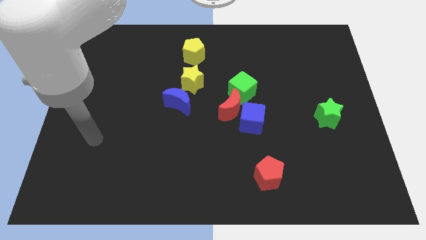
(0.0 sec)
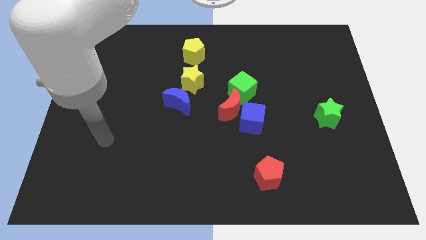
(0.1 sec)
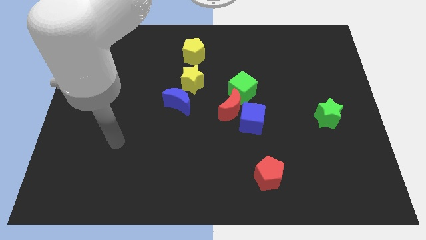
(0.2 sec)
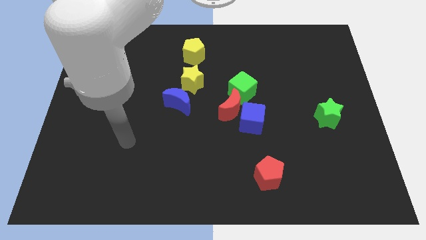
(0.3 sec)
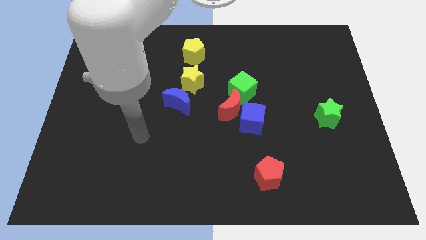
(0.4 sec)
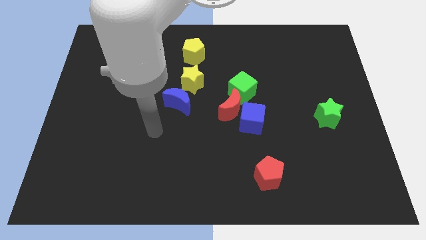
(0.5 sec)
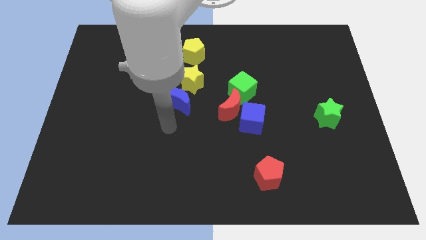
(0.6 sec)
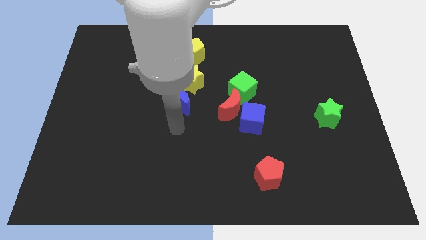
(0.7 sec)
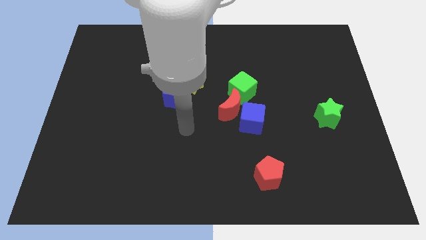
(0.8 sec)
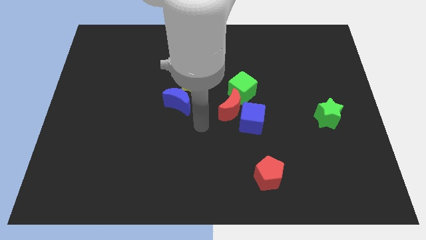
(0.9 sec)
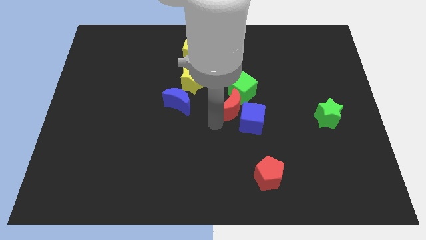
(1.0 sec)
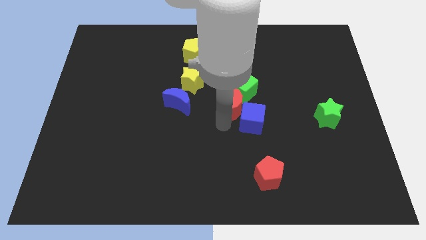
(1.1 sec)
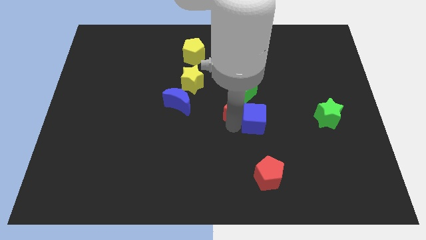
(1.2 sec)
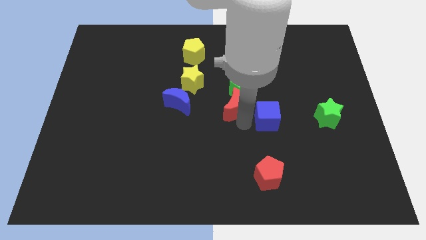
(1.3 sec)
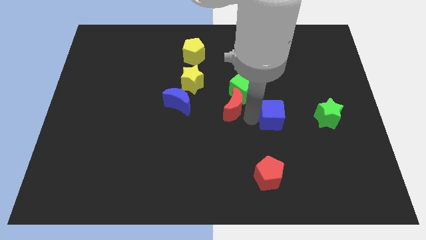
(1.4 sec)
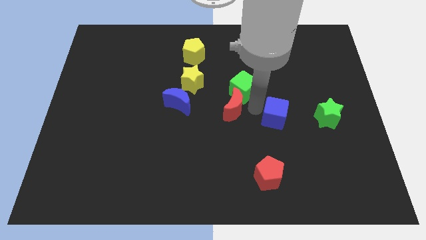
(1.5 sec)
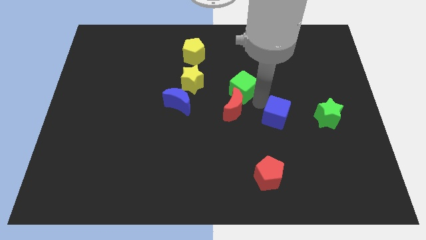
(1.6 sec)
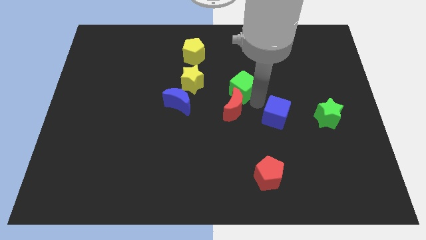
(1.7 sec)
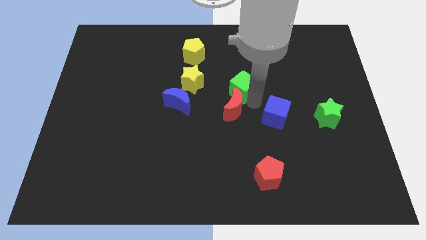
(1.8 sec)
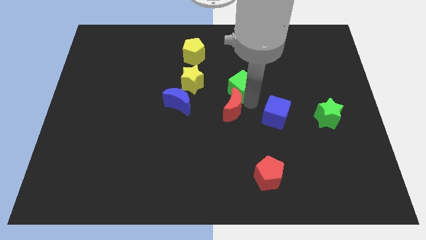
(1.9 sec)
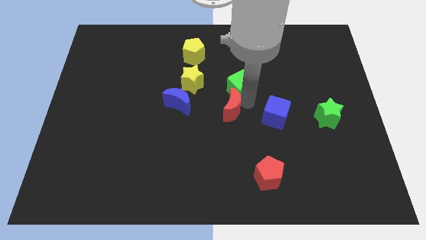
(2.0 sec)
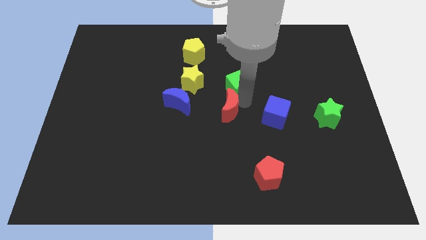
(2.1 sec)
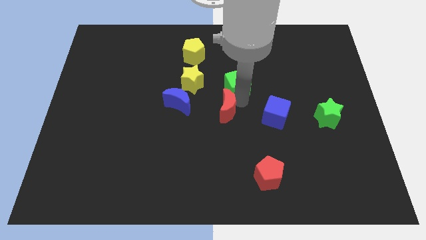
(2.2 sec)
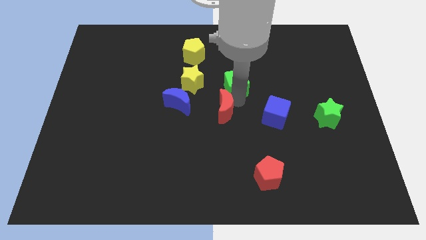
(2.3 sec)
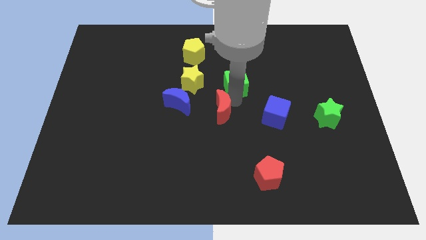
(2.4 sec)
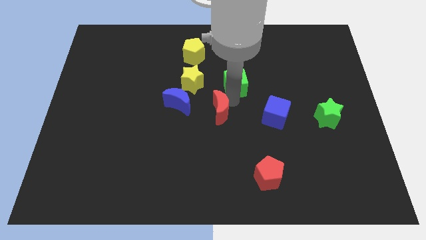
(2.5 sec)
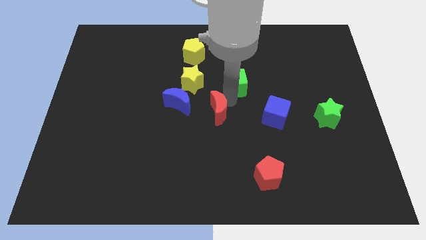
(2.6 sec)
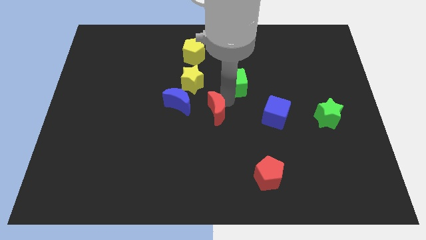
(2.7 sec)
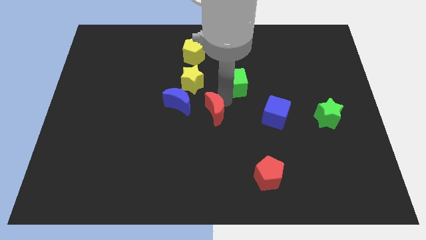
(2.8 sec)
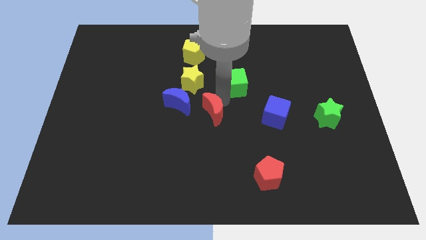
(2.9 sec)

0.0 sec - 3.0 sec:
move the red moon away from the blue cube and green cube

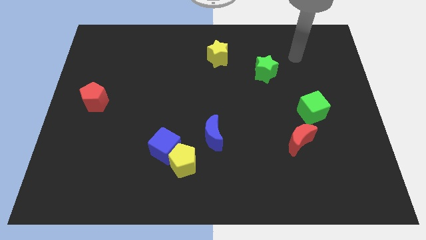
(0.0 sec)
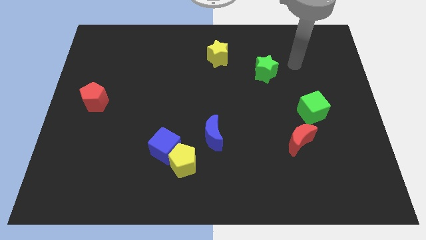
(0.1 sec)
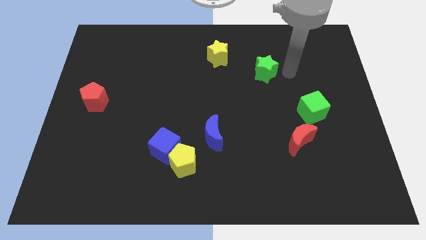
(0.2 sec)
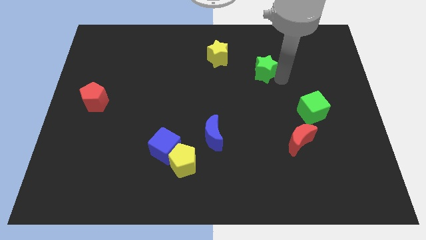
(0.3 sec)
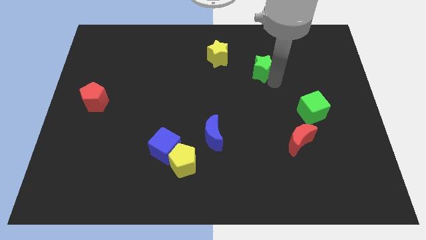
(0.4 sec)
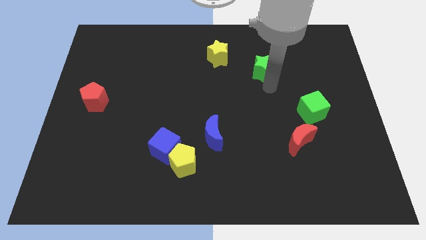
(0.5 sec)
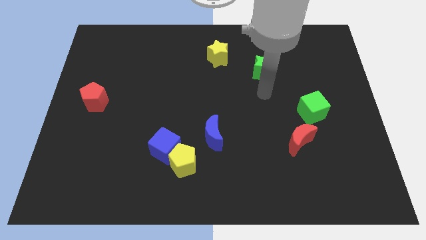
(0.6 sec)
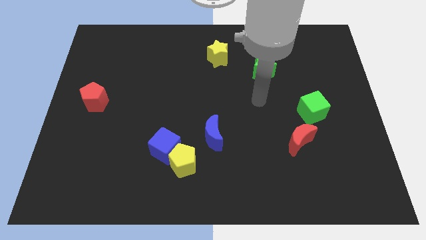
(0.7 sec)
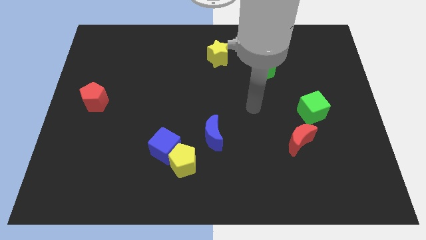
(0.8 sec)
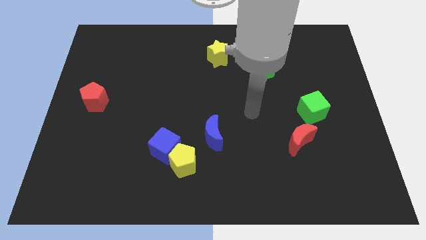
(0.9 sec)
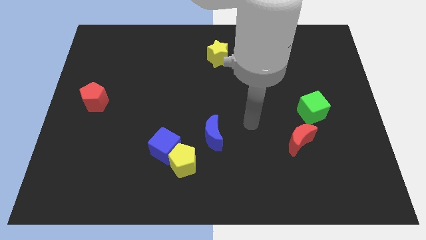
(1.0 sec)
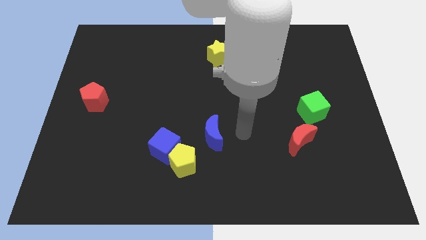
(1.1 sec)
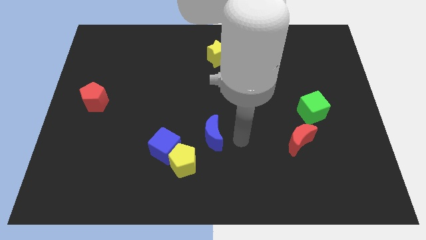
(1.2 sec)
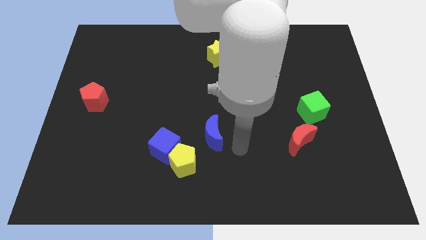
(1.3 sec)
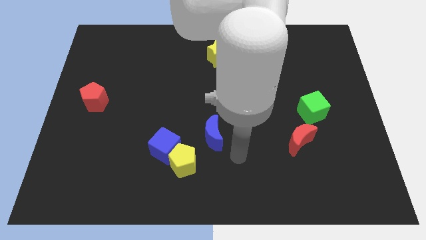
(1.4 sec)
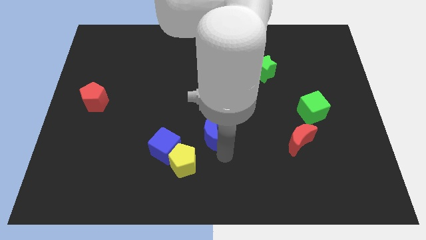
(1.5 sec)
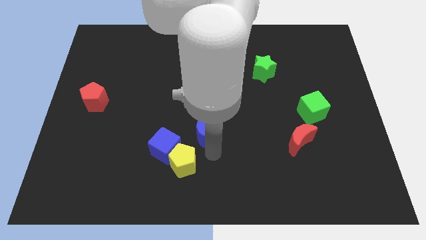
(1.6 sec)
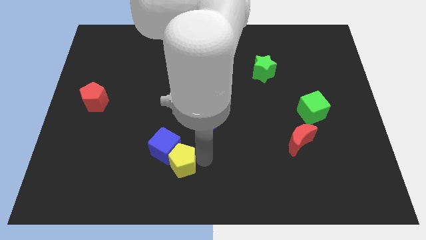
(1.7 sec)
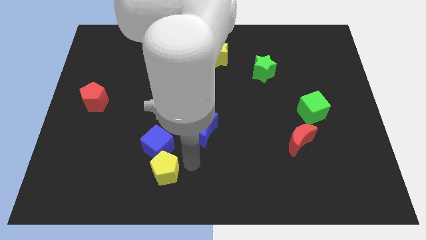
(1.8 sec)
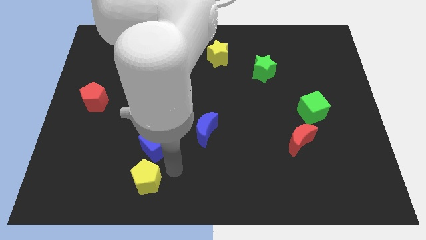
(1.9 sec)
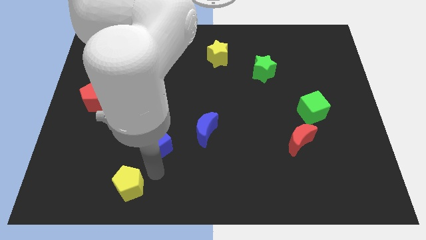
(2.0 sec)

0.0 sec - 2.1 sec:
move the blue cube away from the yellow pentagon

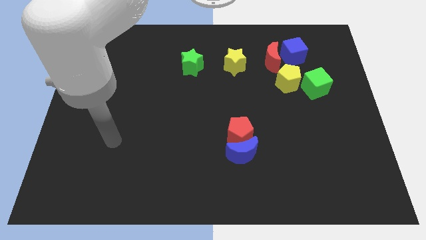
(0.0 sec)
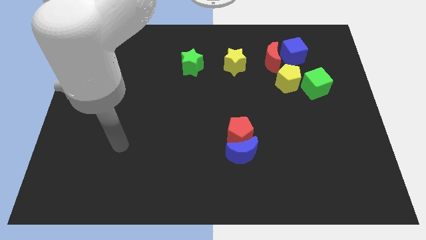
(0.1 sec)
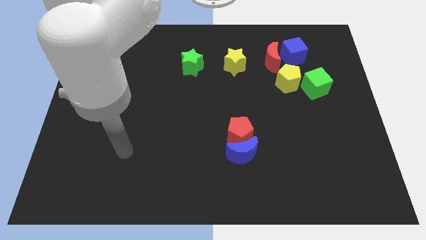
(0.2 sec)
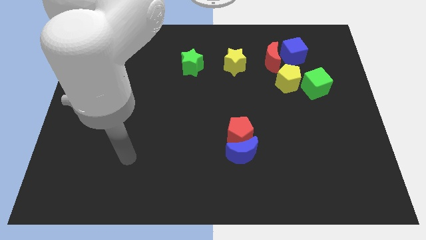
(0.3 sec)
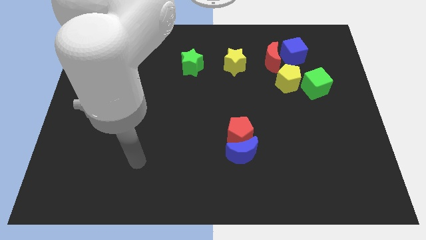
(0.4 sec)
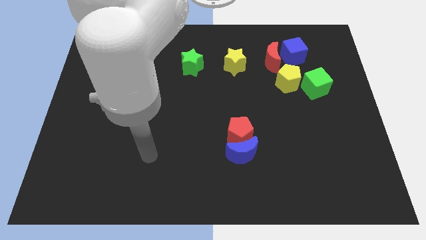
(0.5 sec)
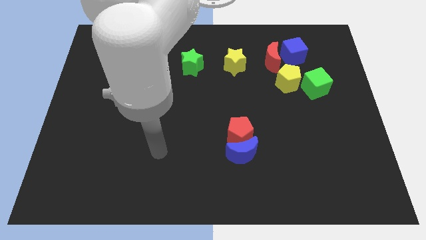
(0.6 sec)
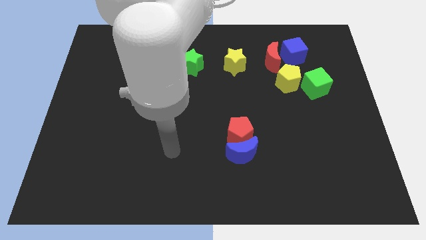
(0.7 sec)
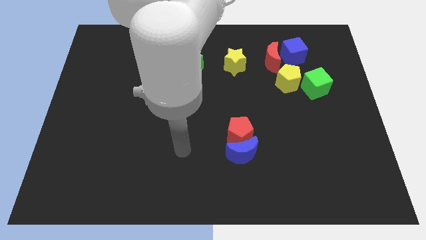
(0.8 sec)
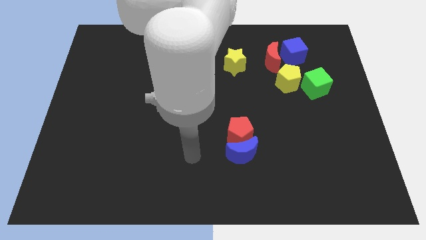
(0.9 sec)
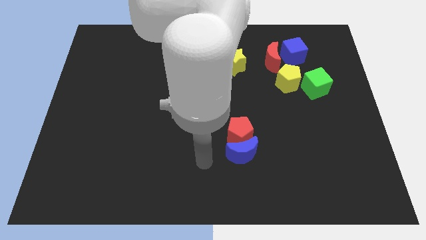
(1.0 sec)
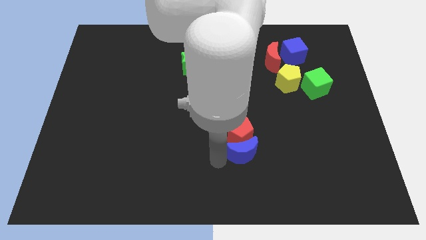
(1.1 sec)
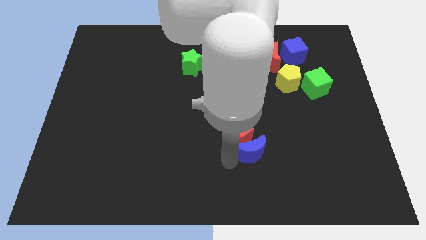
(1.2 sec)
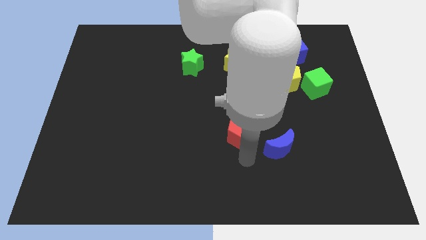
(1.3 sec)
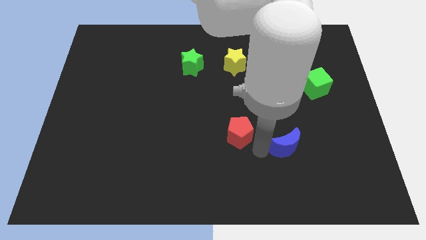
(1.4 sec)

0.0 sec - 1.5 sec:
move the red pentagon away from the blue moon

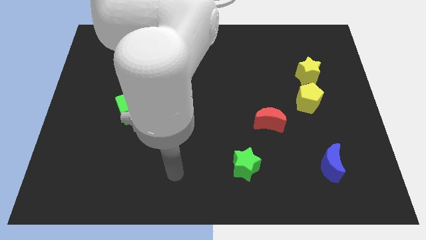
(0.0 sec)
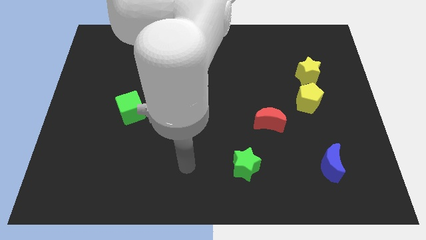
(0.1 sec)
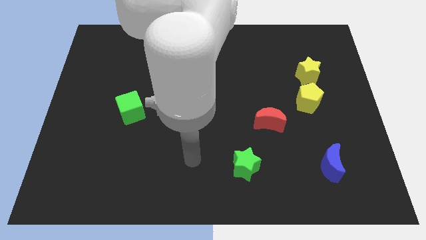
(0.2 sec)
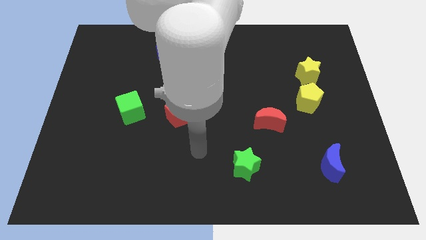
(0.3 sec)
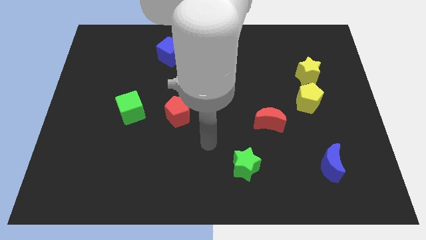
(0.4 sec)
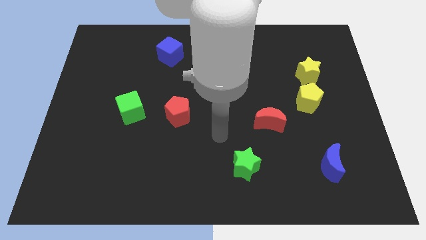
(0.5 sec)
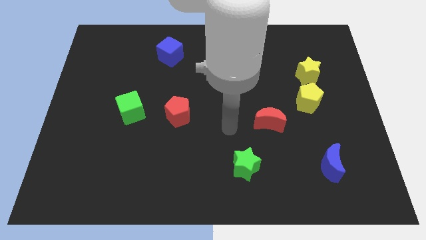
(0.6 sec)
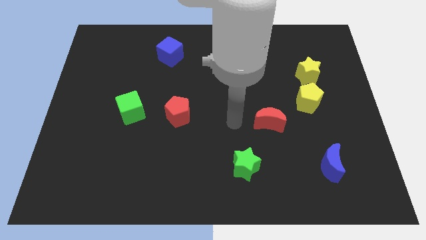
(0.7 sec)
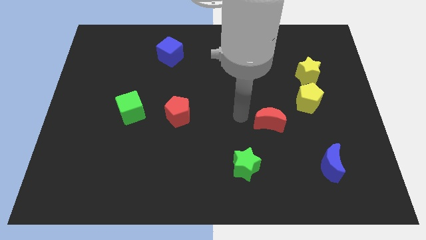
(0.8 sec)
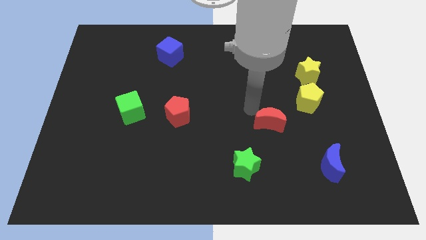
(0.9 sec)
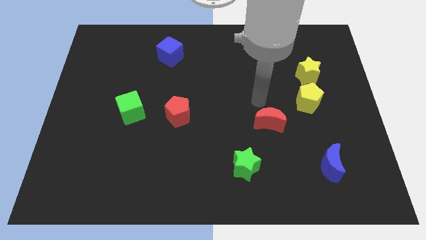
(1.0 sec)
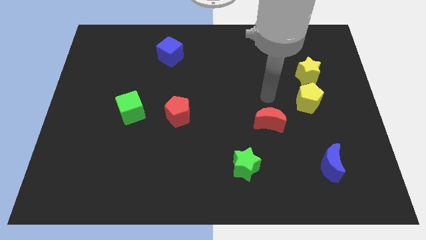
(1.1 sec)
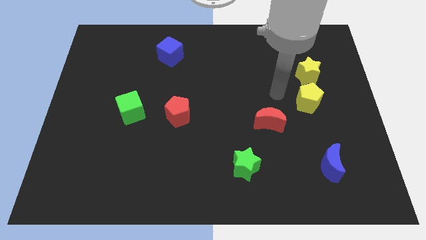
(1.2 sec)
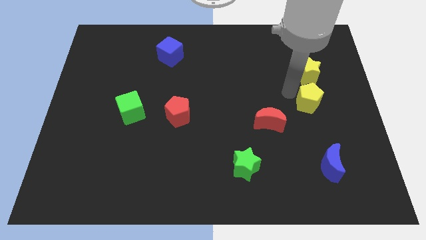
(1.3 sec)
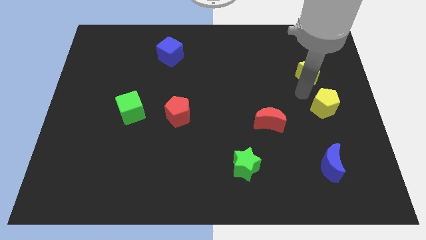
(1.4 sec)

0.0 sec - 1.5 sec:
separate the yellow star from the yellow pentagon

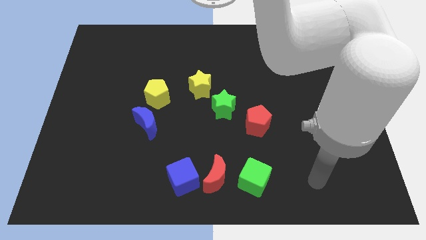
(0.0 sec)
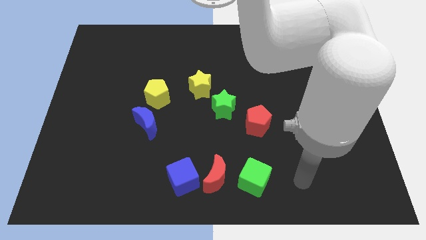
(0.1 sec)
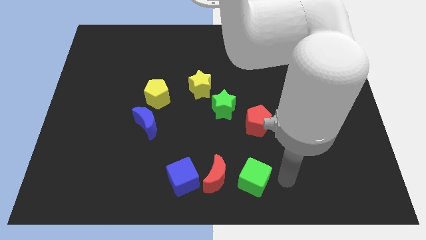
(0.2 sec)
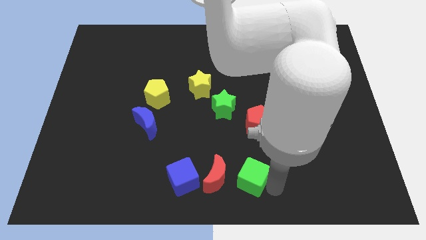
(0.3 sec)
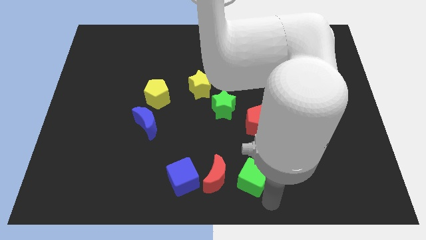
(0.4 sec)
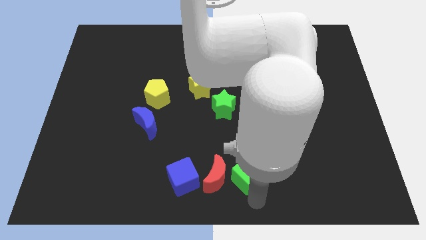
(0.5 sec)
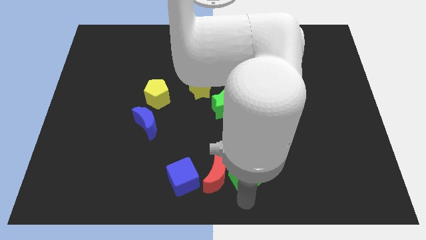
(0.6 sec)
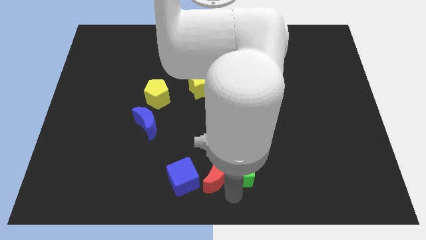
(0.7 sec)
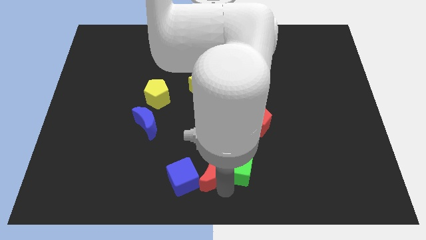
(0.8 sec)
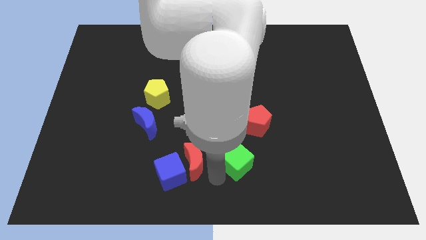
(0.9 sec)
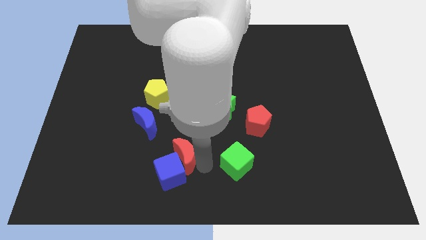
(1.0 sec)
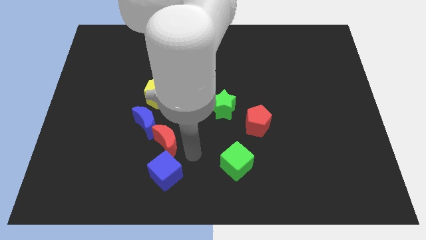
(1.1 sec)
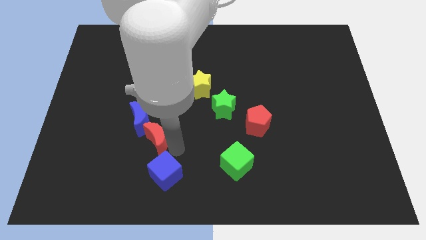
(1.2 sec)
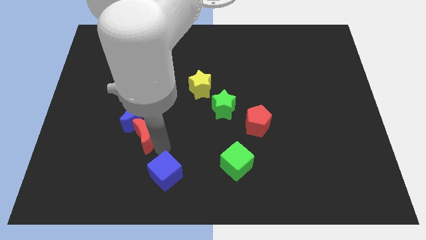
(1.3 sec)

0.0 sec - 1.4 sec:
move the blue cube away from the red moon
